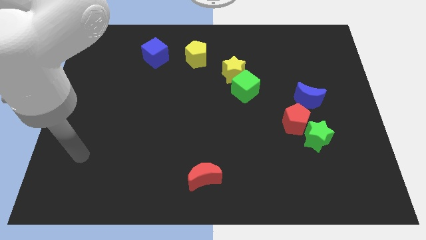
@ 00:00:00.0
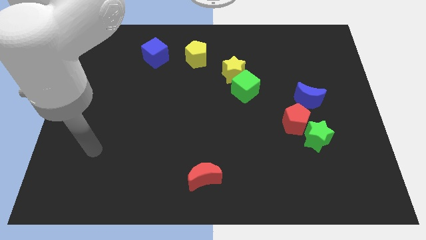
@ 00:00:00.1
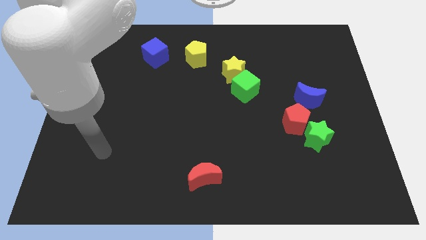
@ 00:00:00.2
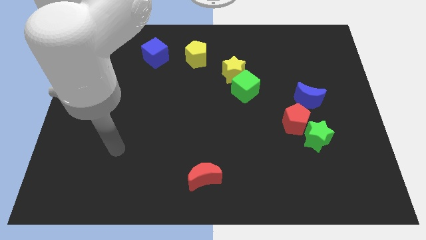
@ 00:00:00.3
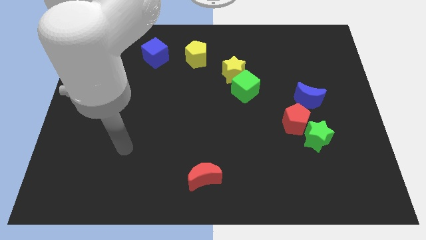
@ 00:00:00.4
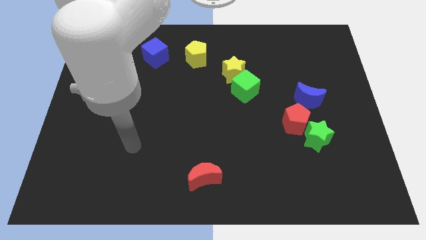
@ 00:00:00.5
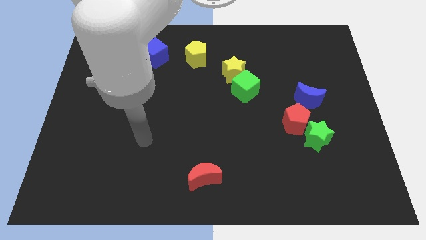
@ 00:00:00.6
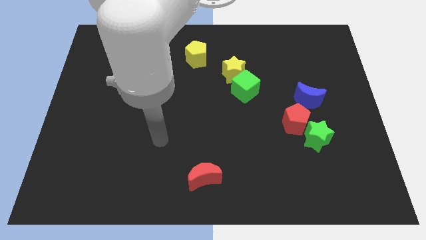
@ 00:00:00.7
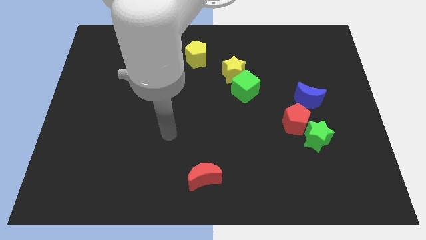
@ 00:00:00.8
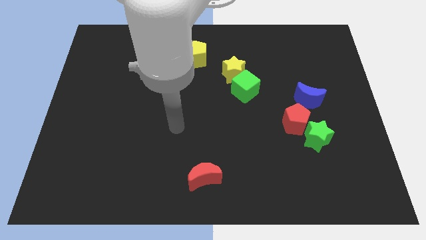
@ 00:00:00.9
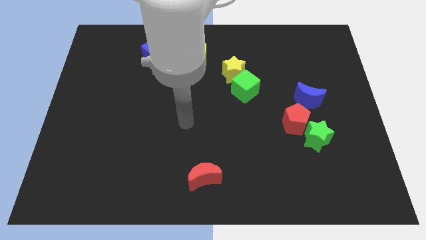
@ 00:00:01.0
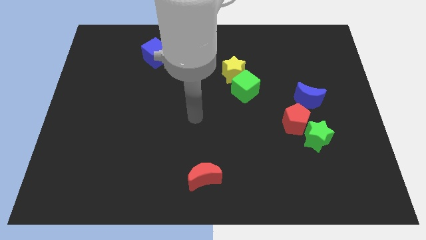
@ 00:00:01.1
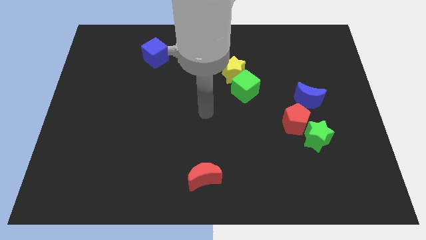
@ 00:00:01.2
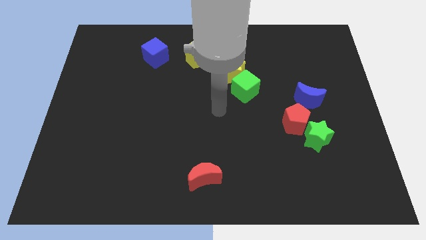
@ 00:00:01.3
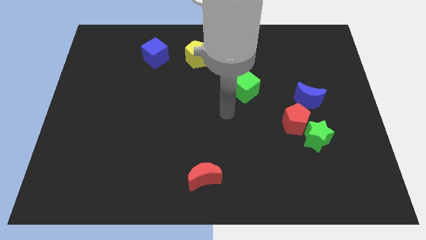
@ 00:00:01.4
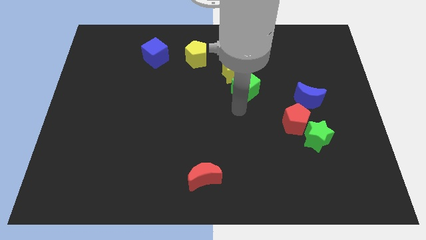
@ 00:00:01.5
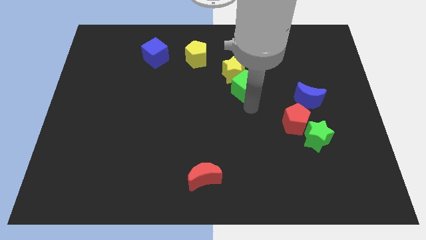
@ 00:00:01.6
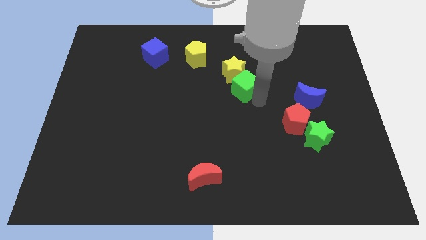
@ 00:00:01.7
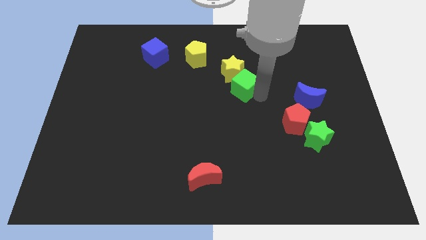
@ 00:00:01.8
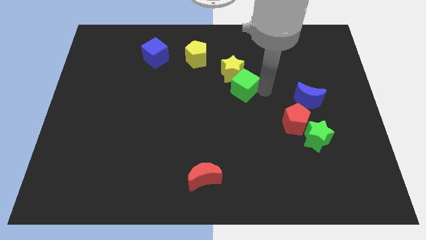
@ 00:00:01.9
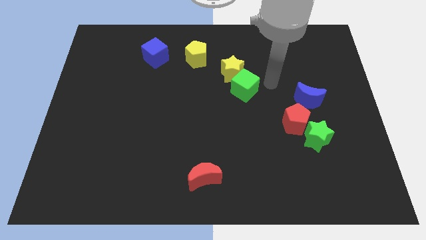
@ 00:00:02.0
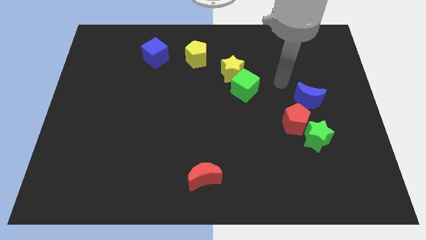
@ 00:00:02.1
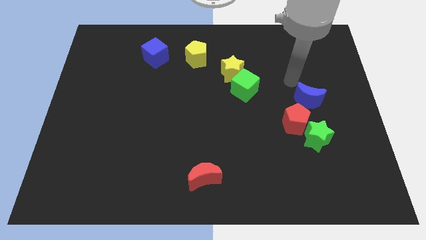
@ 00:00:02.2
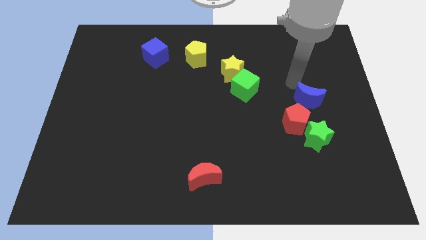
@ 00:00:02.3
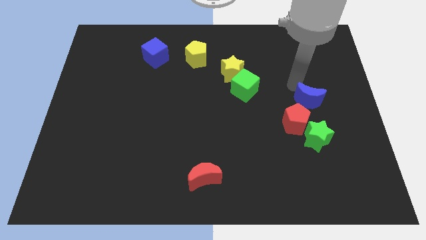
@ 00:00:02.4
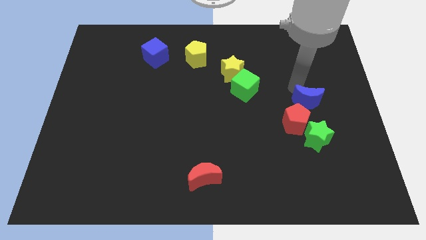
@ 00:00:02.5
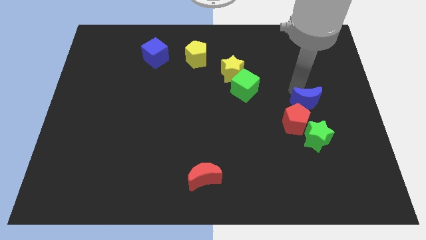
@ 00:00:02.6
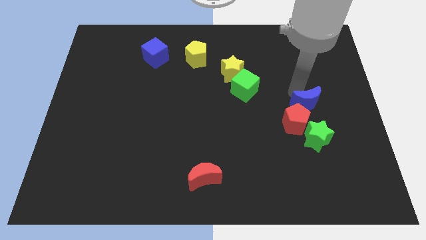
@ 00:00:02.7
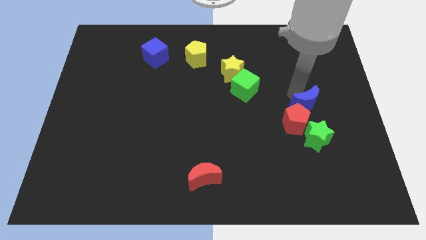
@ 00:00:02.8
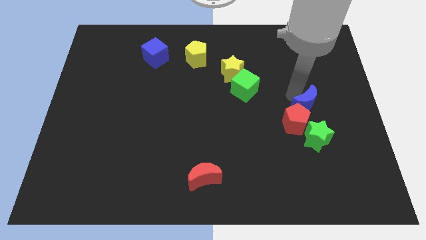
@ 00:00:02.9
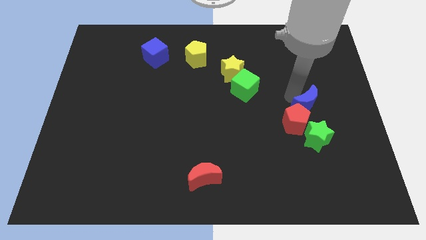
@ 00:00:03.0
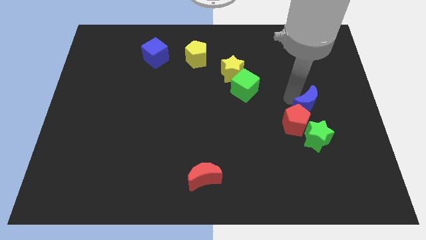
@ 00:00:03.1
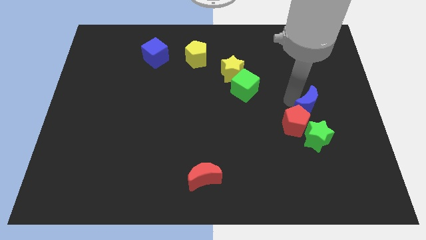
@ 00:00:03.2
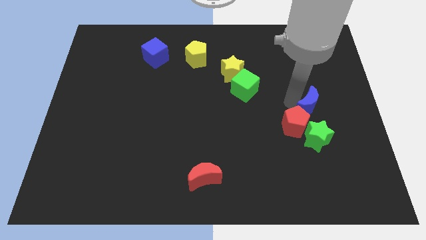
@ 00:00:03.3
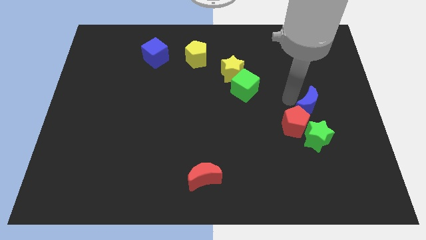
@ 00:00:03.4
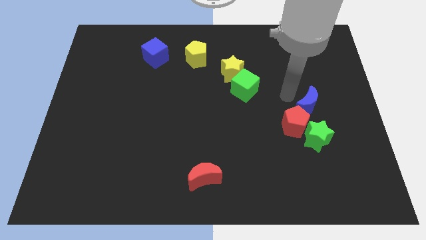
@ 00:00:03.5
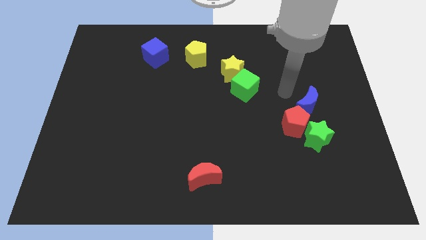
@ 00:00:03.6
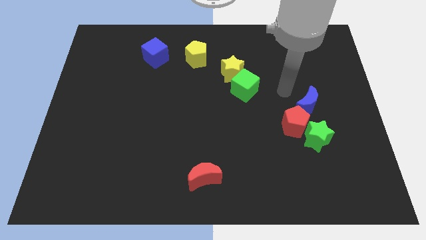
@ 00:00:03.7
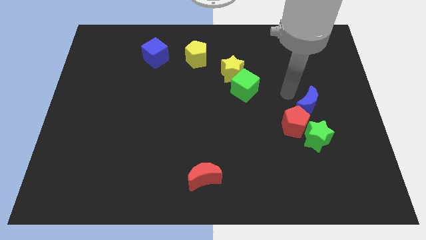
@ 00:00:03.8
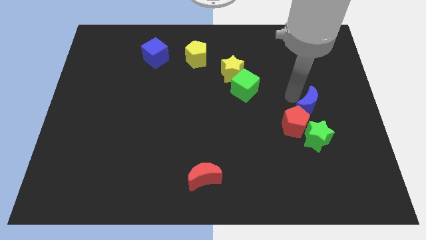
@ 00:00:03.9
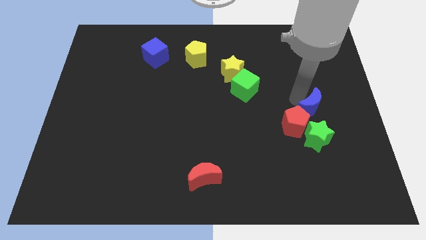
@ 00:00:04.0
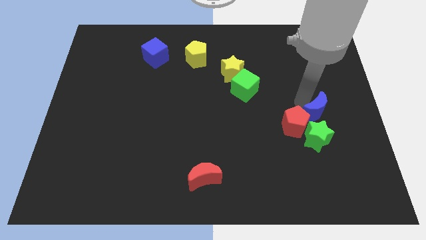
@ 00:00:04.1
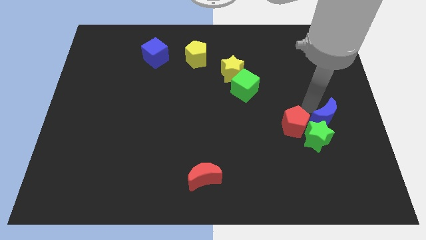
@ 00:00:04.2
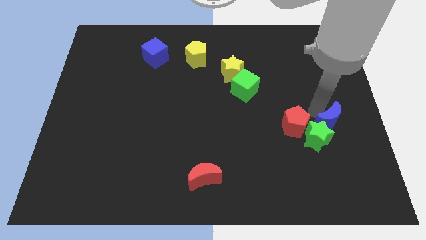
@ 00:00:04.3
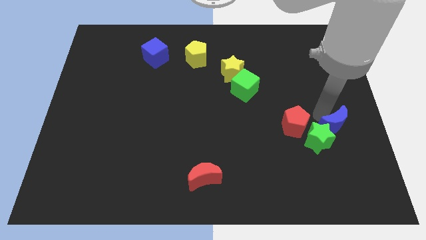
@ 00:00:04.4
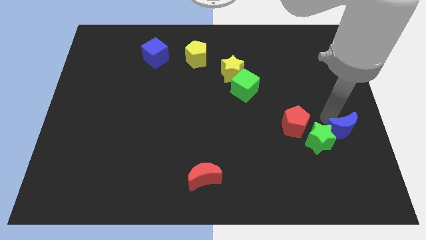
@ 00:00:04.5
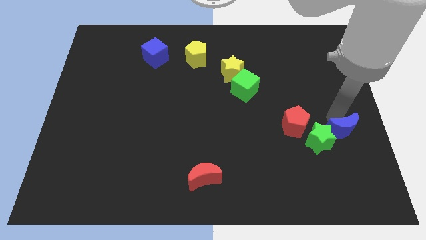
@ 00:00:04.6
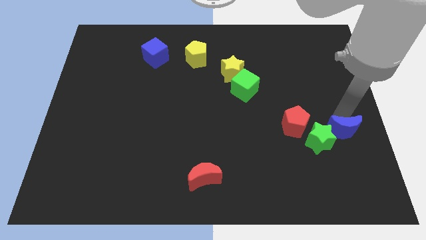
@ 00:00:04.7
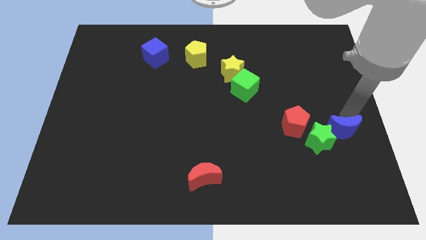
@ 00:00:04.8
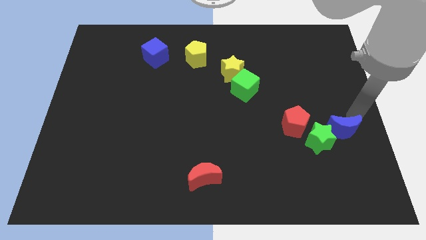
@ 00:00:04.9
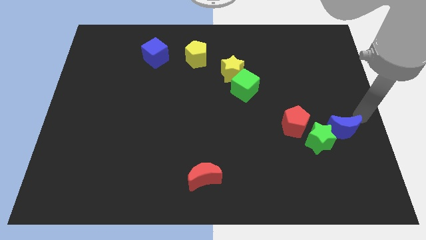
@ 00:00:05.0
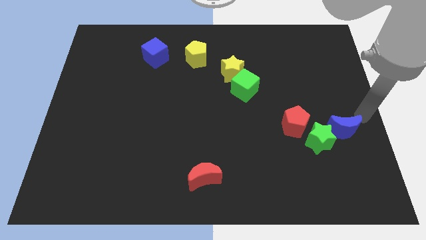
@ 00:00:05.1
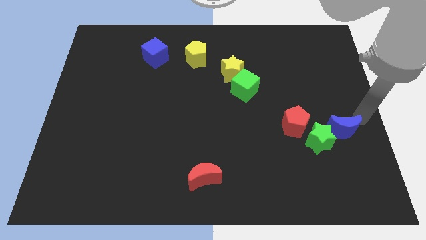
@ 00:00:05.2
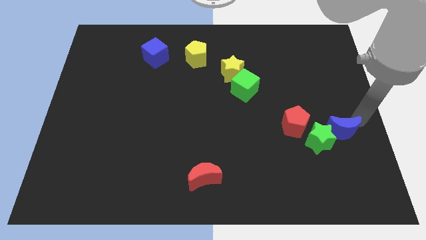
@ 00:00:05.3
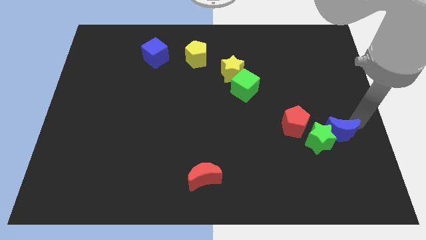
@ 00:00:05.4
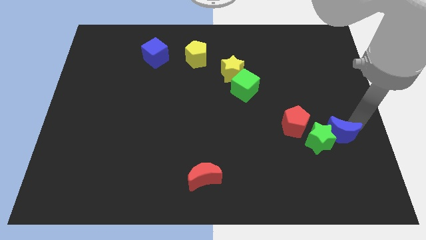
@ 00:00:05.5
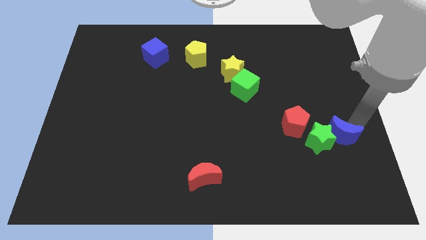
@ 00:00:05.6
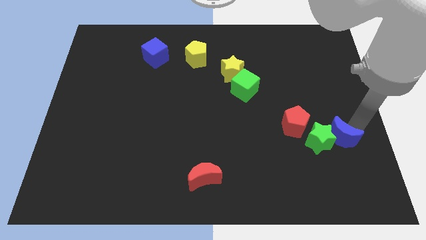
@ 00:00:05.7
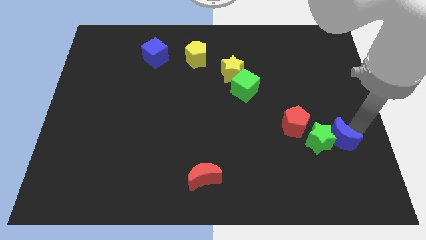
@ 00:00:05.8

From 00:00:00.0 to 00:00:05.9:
move the blue moon to the bottom right of the red pentagon
